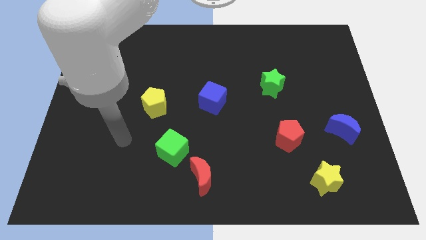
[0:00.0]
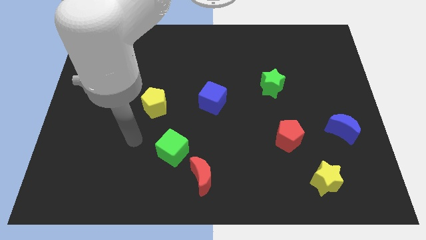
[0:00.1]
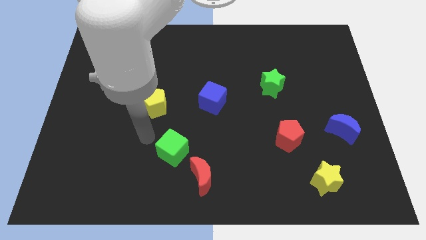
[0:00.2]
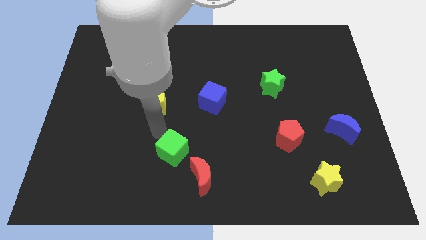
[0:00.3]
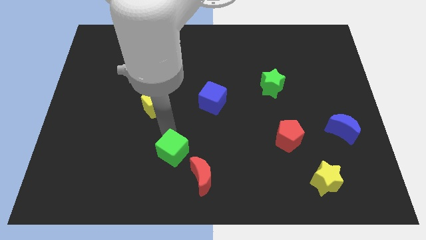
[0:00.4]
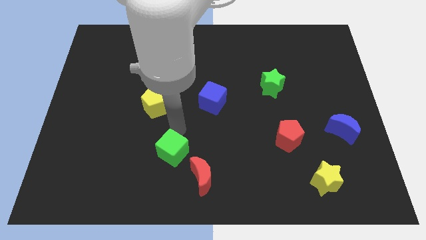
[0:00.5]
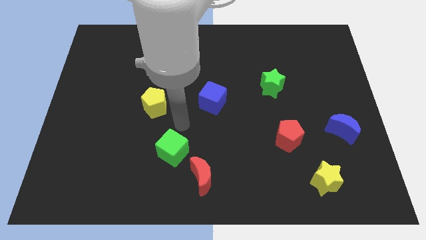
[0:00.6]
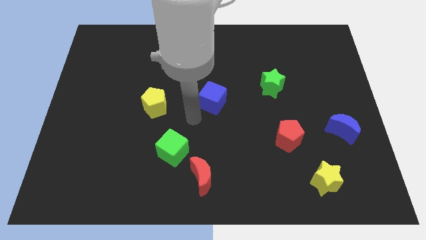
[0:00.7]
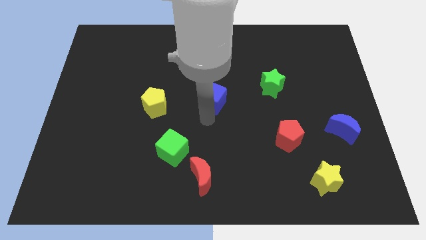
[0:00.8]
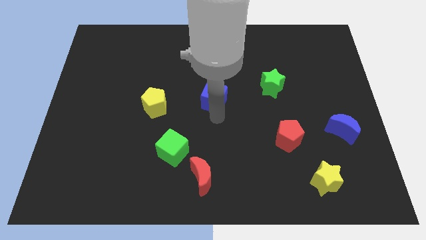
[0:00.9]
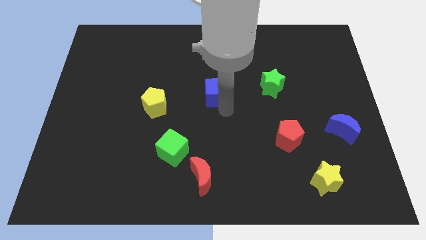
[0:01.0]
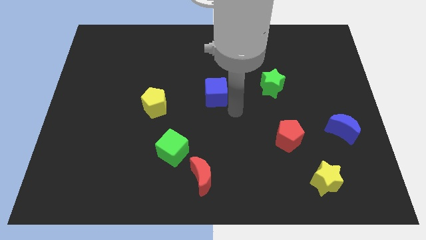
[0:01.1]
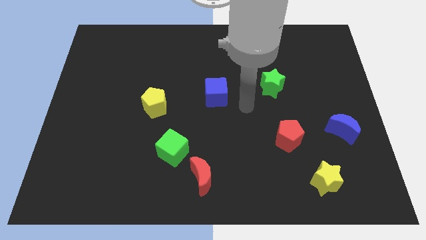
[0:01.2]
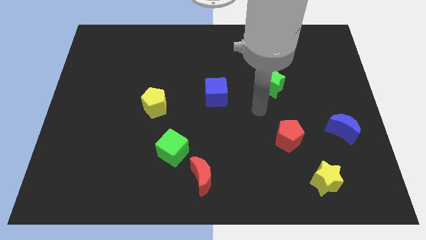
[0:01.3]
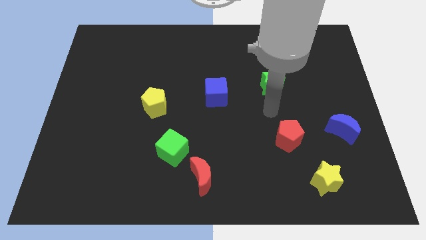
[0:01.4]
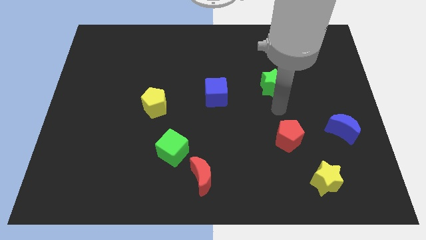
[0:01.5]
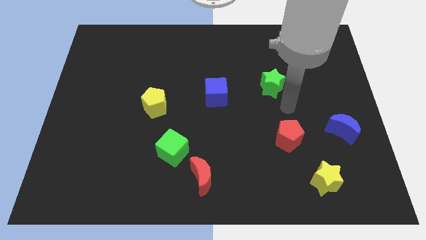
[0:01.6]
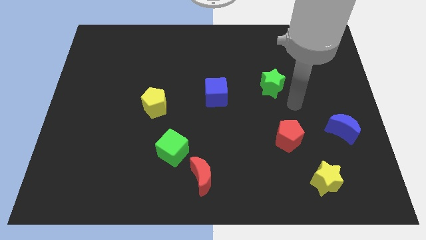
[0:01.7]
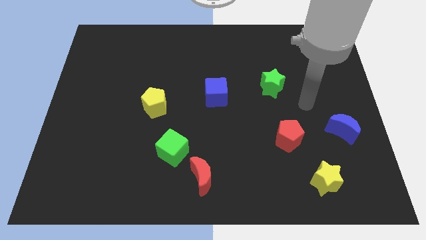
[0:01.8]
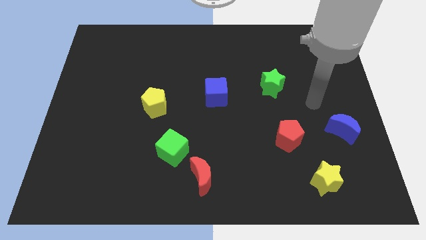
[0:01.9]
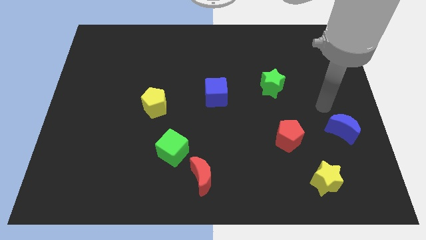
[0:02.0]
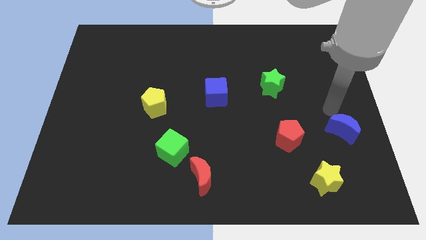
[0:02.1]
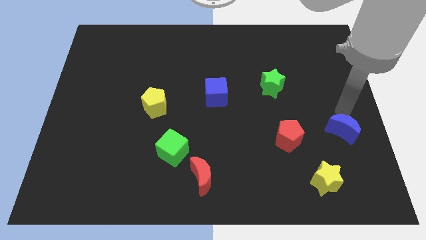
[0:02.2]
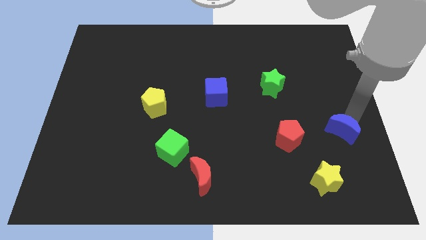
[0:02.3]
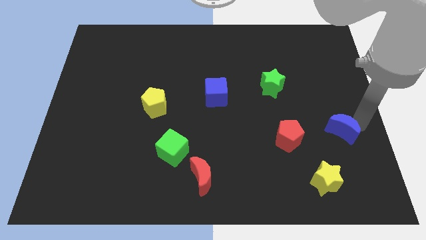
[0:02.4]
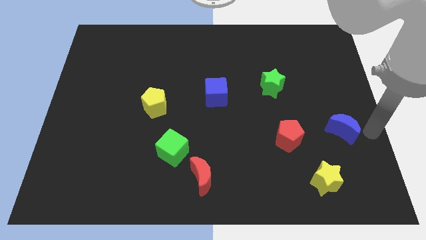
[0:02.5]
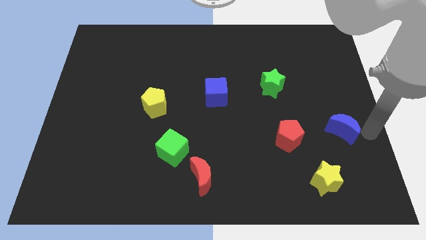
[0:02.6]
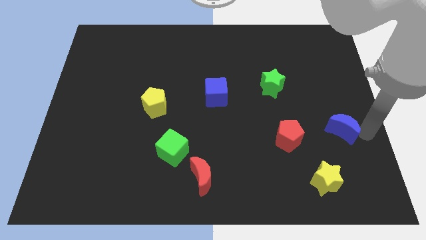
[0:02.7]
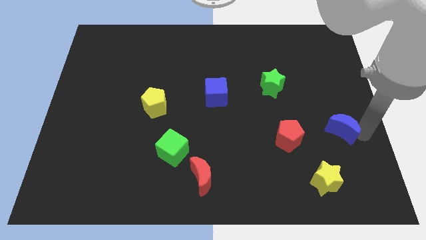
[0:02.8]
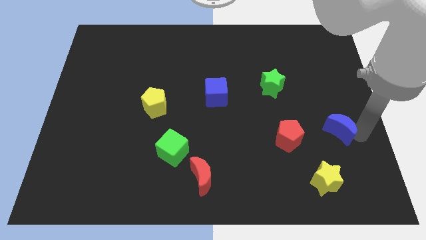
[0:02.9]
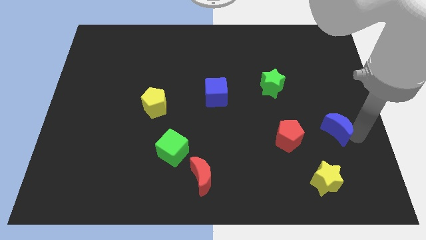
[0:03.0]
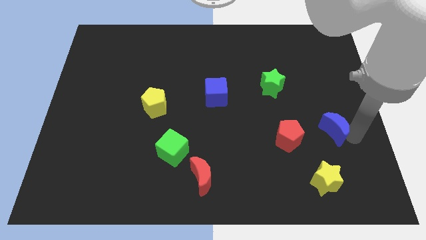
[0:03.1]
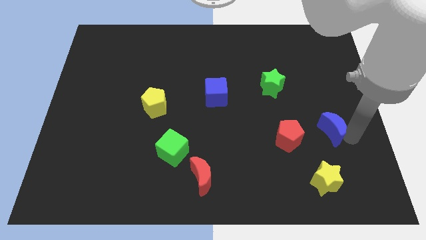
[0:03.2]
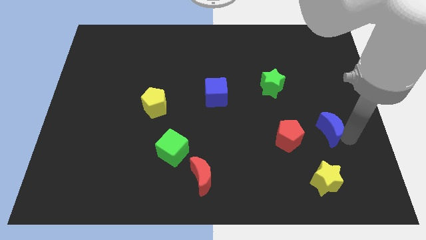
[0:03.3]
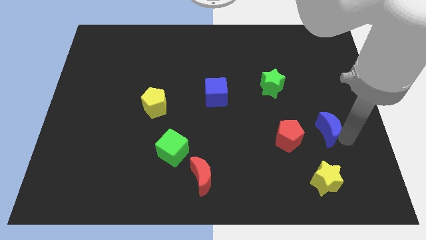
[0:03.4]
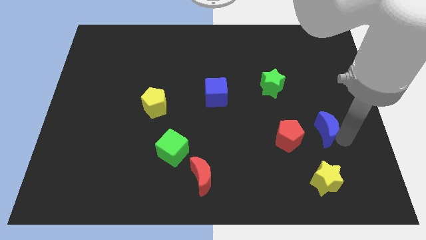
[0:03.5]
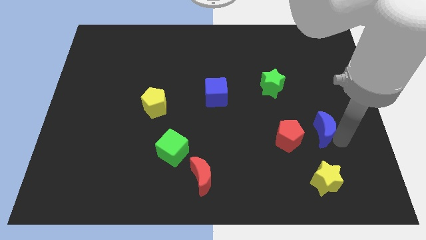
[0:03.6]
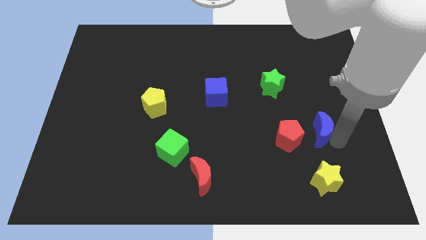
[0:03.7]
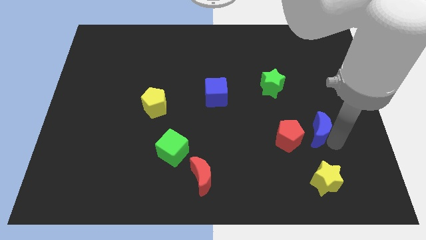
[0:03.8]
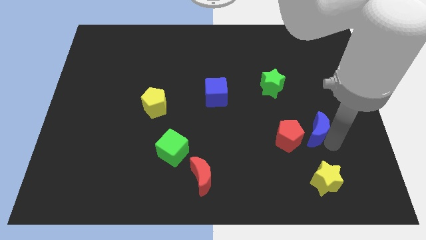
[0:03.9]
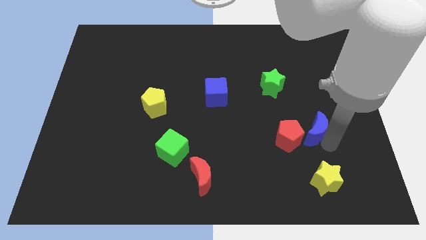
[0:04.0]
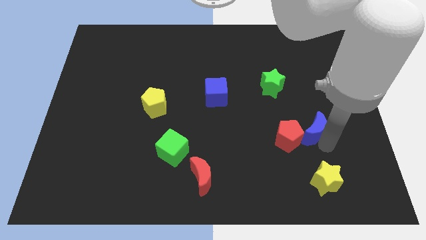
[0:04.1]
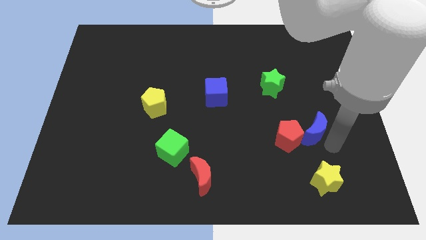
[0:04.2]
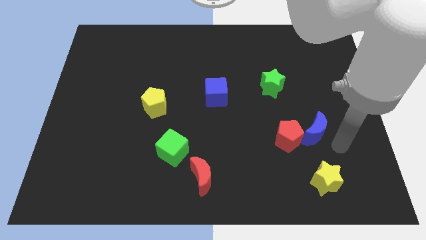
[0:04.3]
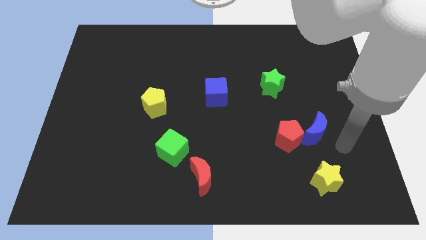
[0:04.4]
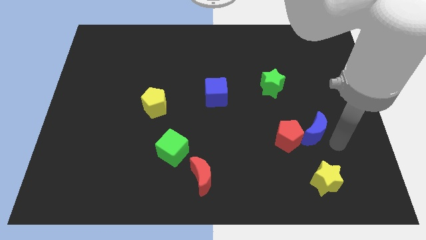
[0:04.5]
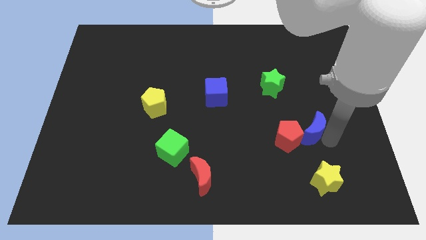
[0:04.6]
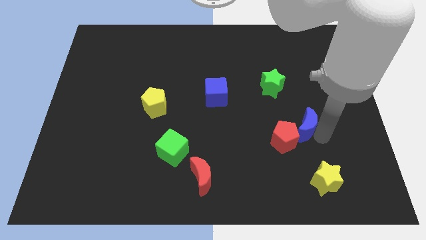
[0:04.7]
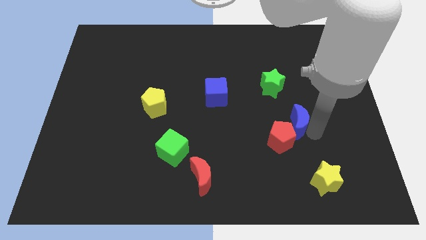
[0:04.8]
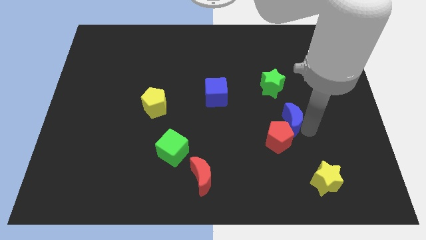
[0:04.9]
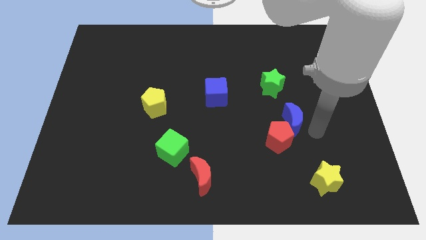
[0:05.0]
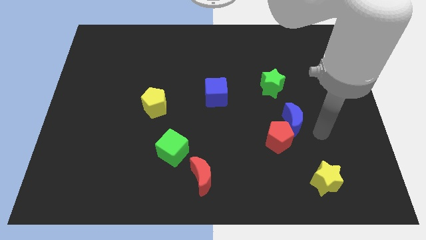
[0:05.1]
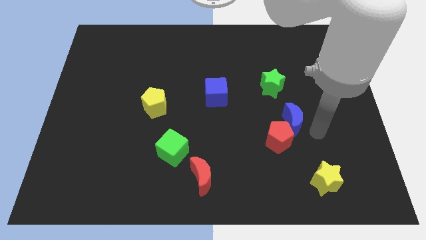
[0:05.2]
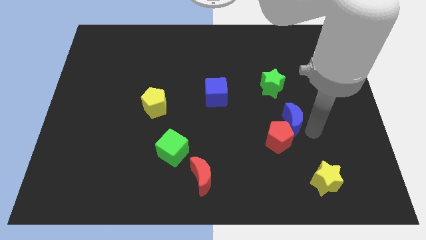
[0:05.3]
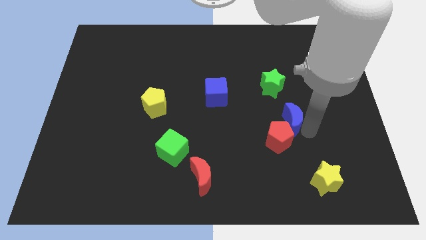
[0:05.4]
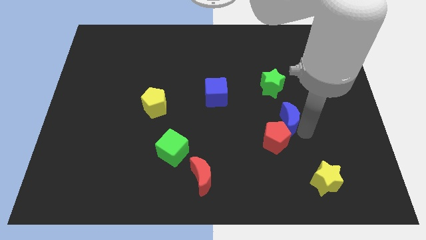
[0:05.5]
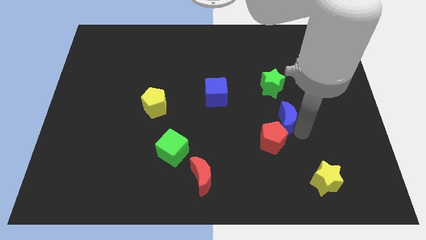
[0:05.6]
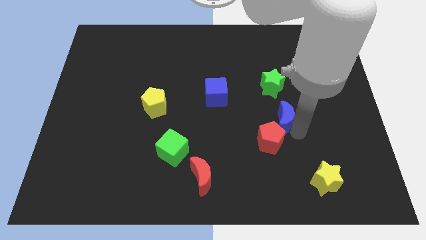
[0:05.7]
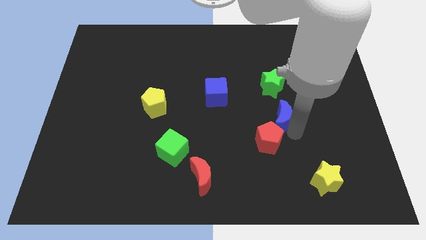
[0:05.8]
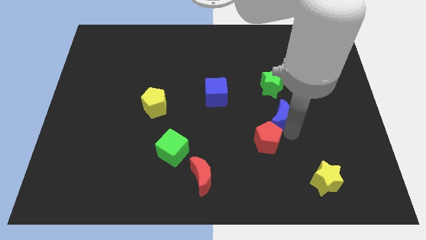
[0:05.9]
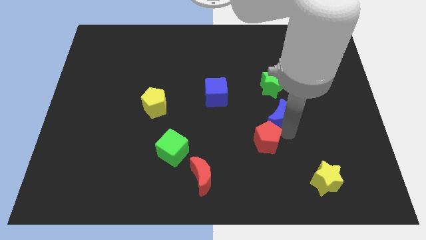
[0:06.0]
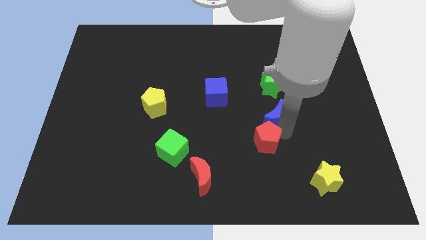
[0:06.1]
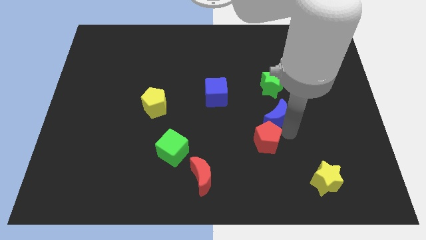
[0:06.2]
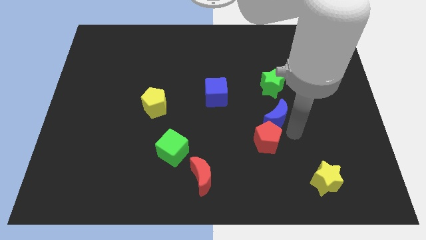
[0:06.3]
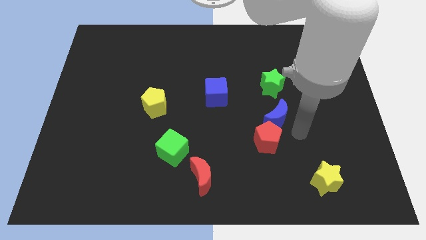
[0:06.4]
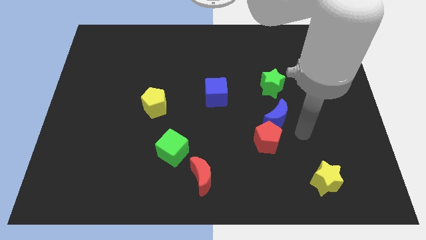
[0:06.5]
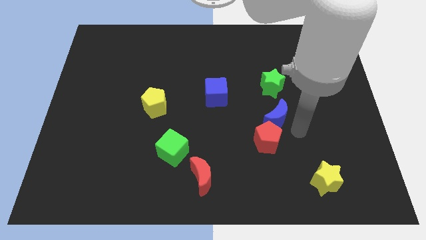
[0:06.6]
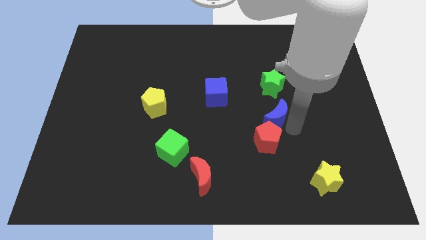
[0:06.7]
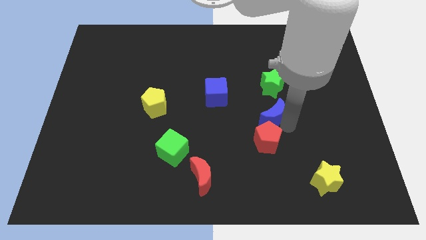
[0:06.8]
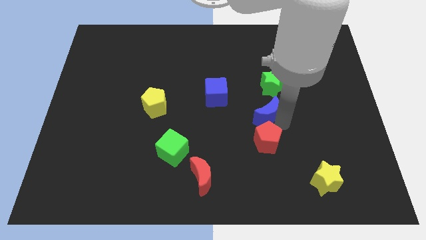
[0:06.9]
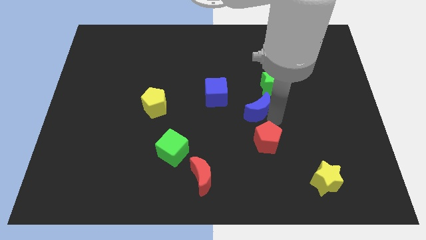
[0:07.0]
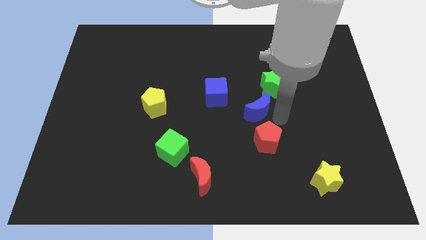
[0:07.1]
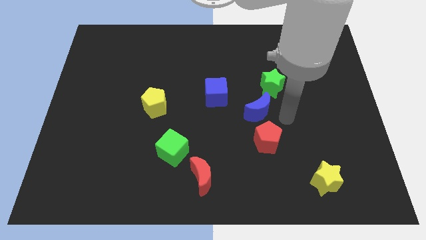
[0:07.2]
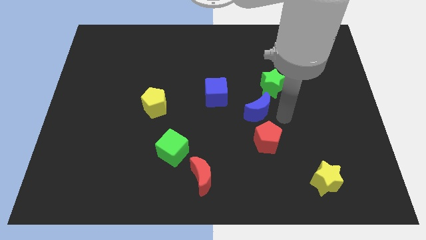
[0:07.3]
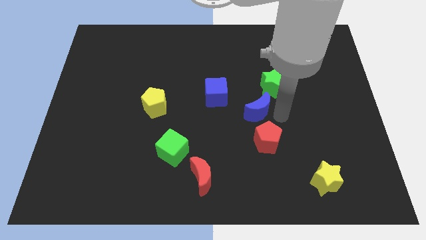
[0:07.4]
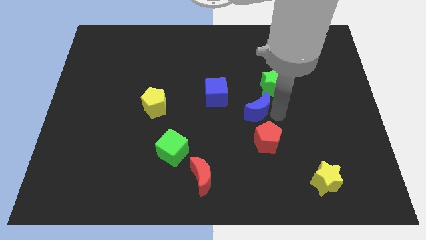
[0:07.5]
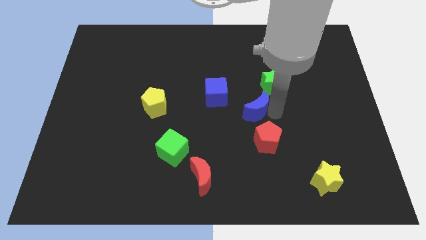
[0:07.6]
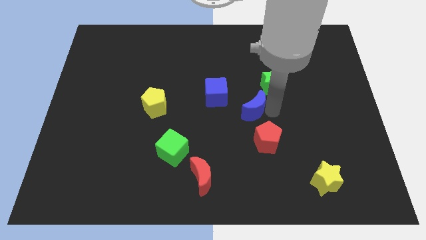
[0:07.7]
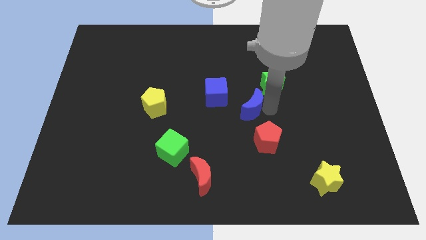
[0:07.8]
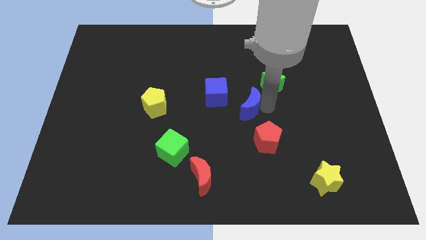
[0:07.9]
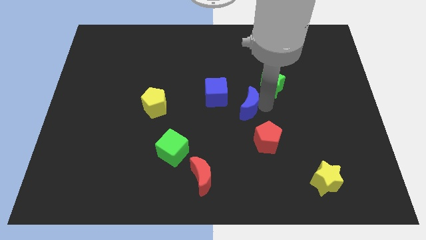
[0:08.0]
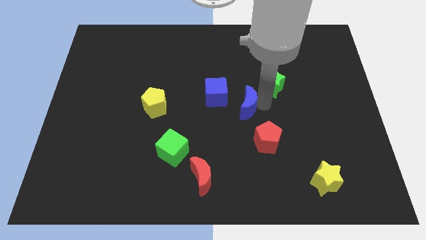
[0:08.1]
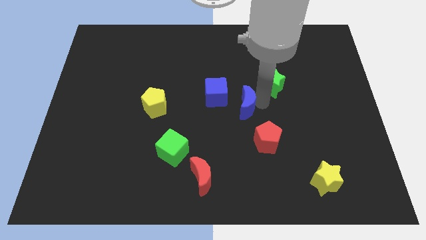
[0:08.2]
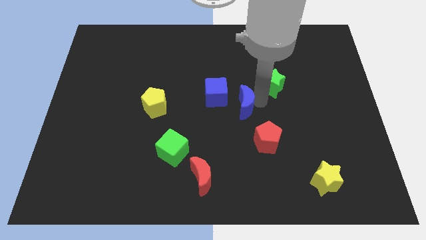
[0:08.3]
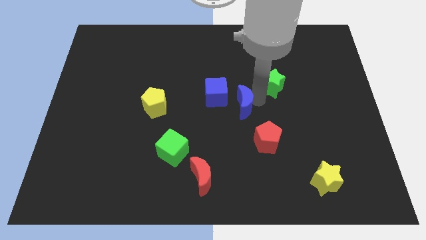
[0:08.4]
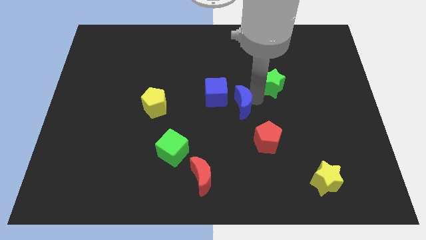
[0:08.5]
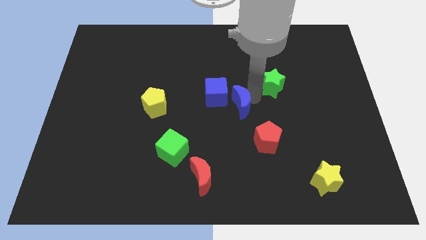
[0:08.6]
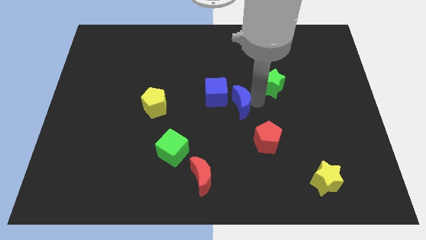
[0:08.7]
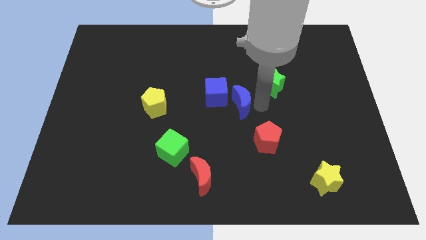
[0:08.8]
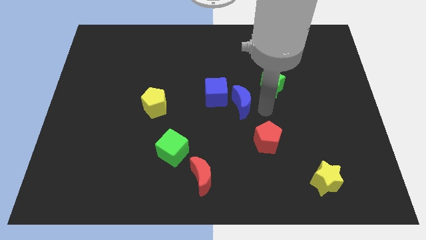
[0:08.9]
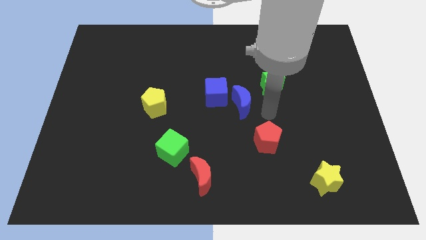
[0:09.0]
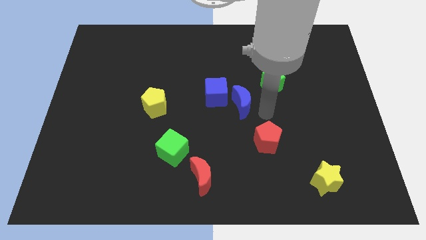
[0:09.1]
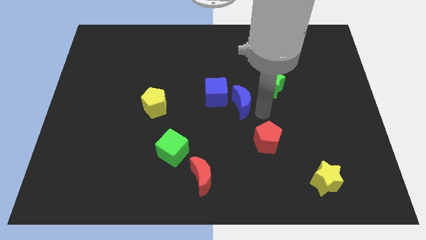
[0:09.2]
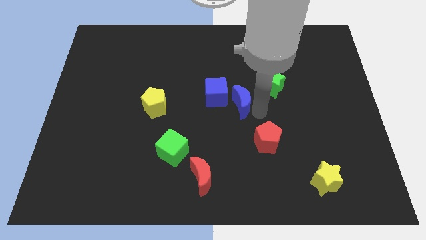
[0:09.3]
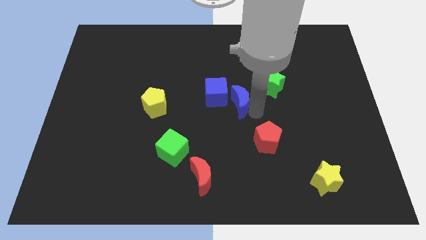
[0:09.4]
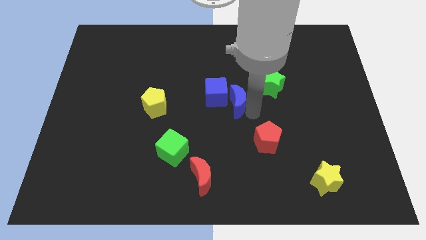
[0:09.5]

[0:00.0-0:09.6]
push the blue moon towards the blue cube
